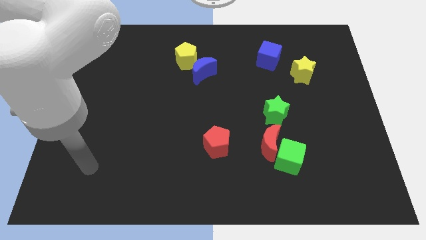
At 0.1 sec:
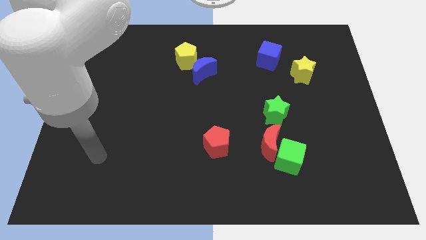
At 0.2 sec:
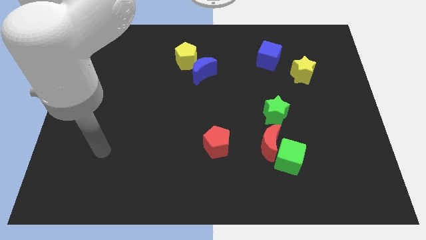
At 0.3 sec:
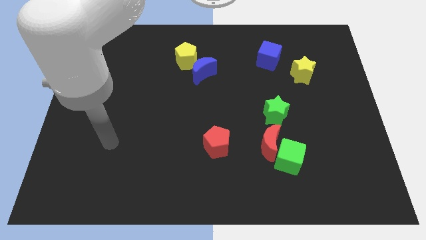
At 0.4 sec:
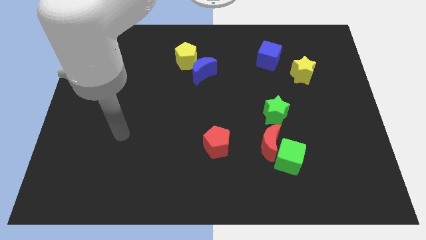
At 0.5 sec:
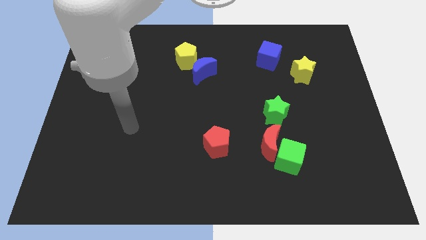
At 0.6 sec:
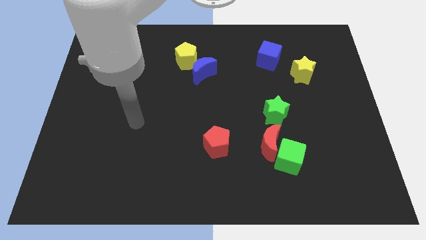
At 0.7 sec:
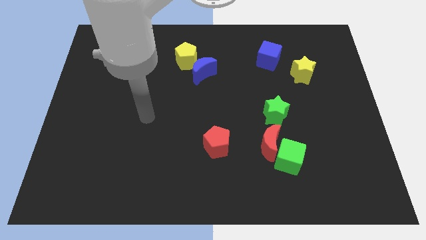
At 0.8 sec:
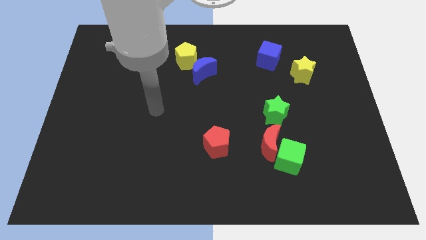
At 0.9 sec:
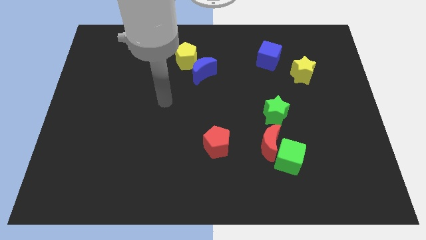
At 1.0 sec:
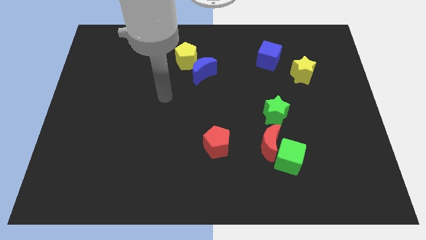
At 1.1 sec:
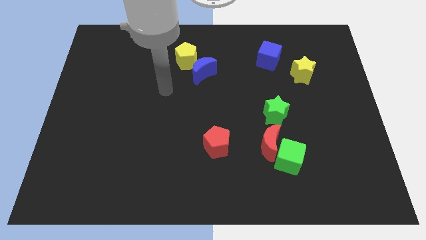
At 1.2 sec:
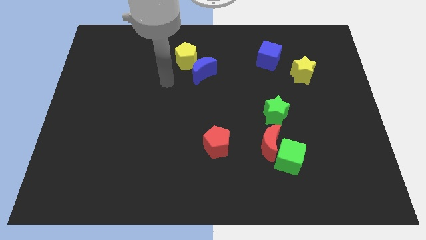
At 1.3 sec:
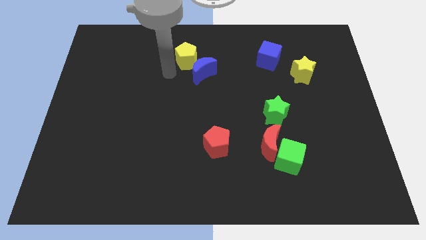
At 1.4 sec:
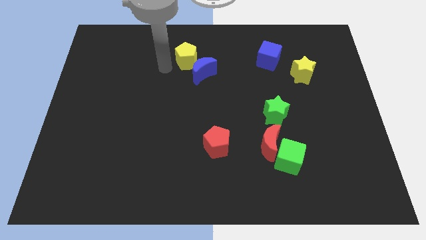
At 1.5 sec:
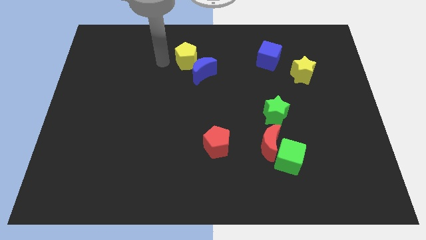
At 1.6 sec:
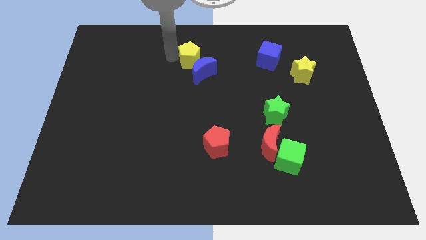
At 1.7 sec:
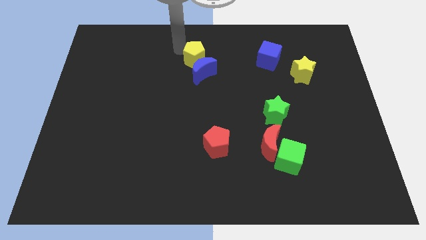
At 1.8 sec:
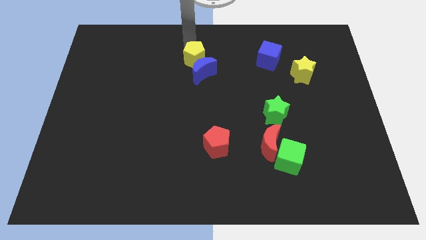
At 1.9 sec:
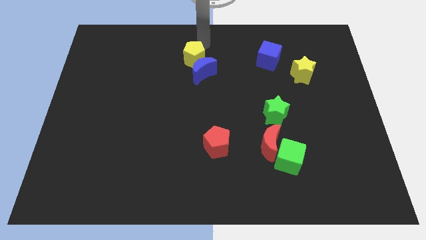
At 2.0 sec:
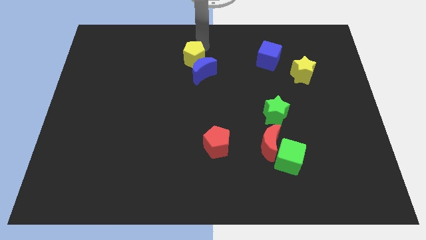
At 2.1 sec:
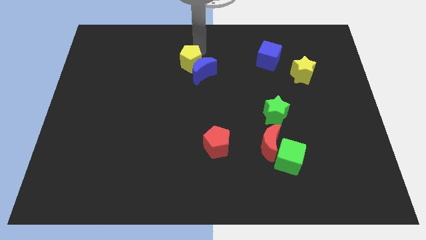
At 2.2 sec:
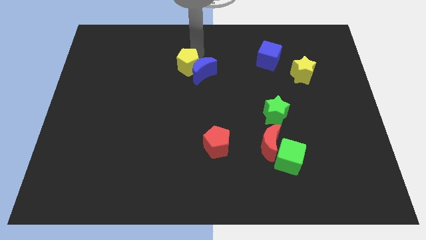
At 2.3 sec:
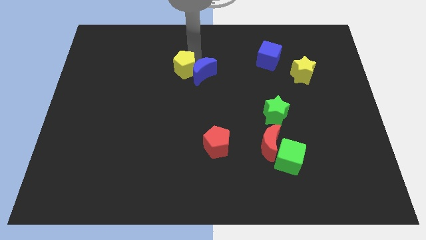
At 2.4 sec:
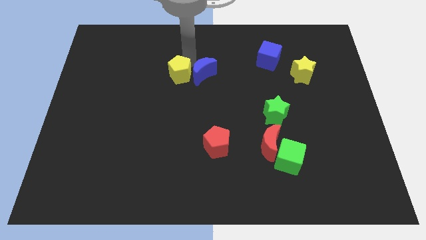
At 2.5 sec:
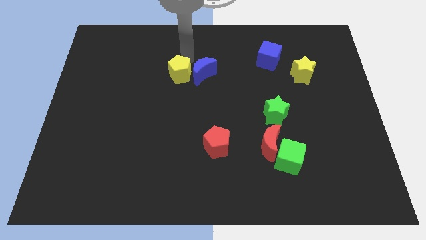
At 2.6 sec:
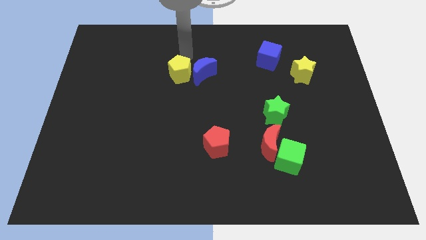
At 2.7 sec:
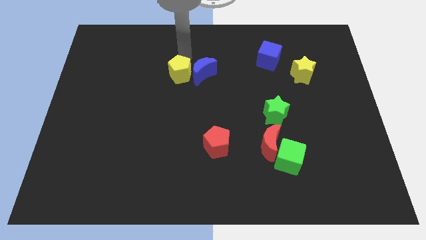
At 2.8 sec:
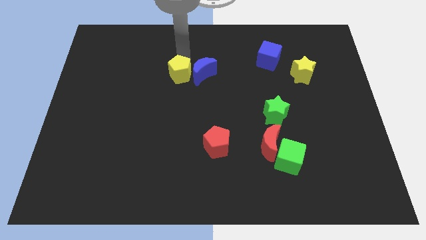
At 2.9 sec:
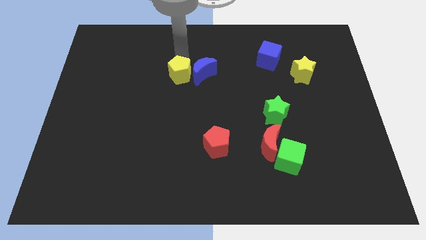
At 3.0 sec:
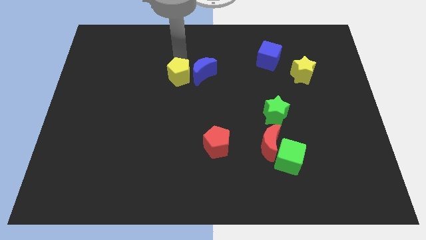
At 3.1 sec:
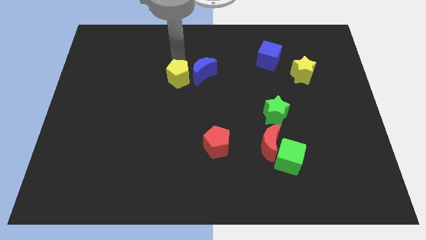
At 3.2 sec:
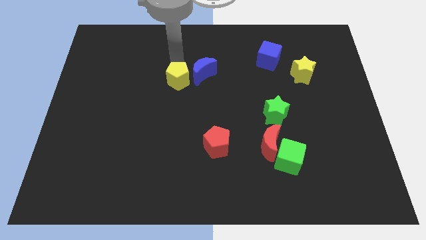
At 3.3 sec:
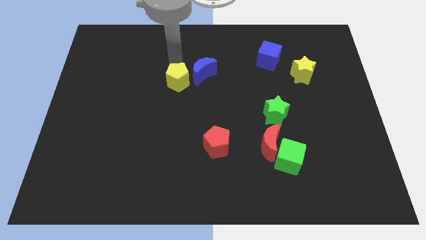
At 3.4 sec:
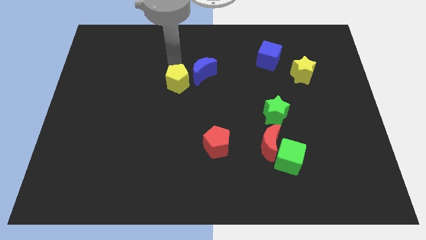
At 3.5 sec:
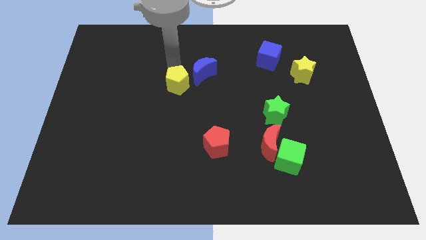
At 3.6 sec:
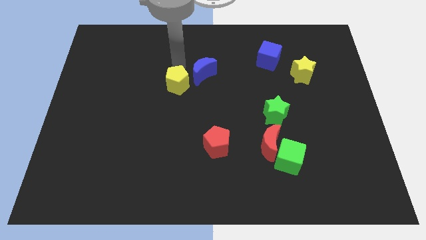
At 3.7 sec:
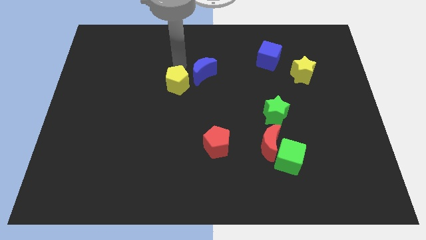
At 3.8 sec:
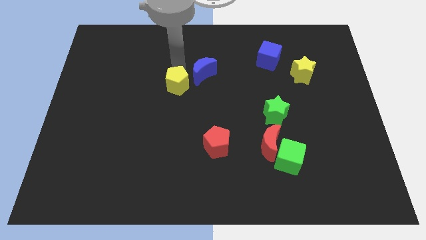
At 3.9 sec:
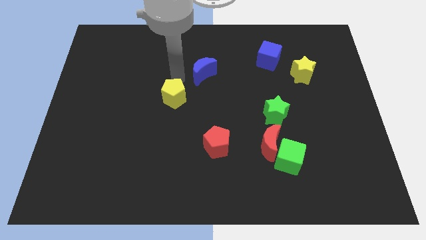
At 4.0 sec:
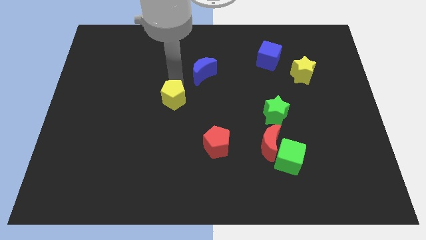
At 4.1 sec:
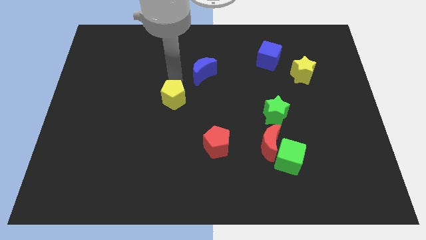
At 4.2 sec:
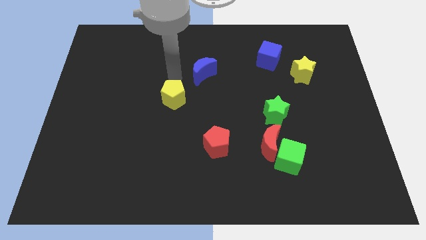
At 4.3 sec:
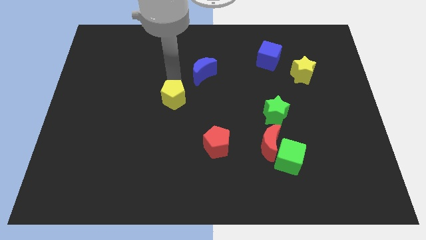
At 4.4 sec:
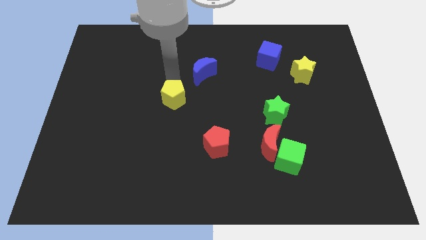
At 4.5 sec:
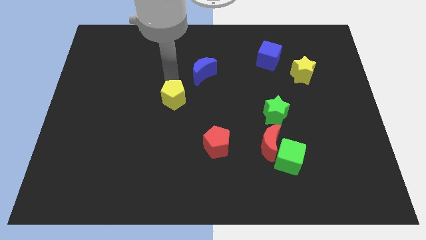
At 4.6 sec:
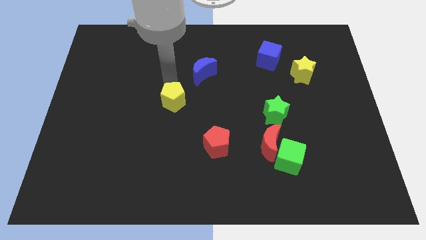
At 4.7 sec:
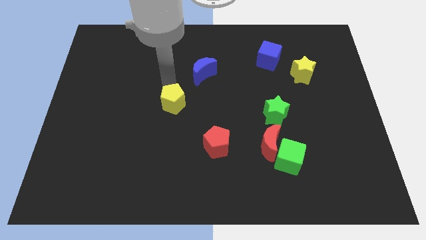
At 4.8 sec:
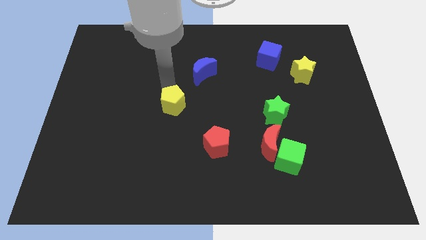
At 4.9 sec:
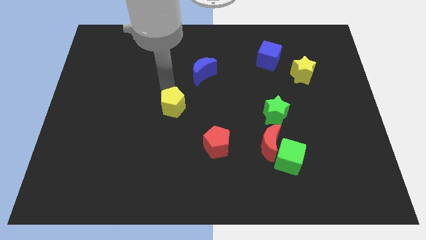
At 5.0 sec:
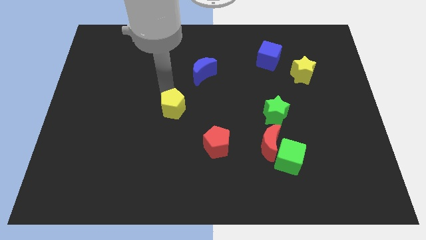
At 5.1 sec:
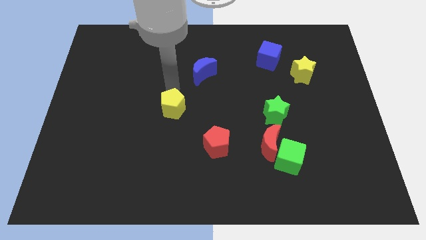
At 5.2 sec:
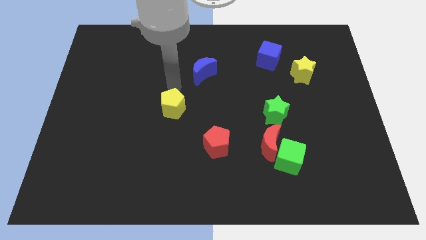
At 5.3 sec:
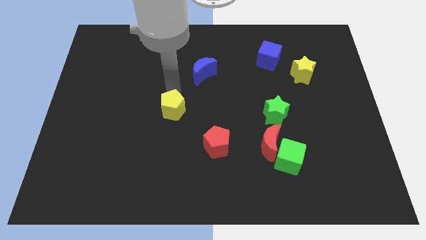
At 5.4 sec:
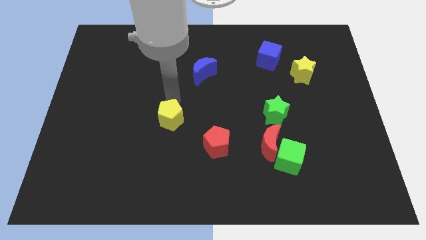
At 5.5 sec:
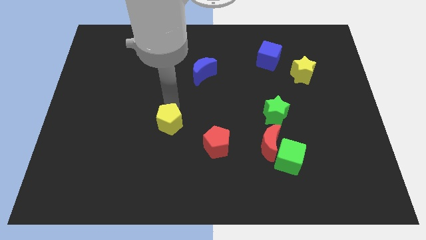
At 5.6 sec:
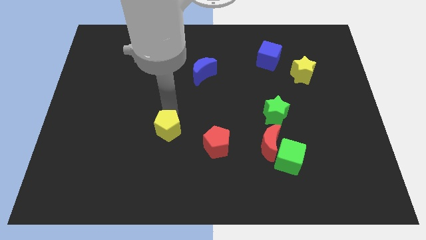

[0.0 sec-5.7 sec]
slide the yellow pentagon left of the red pentagon

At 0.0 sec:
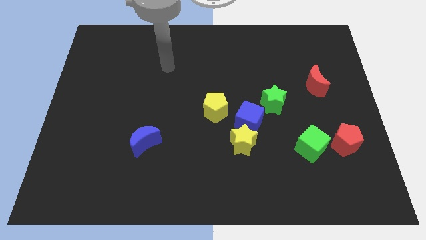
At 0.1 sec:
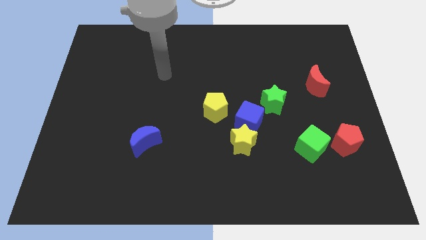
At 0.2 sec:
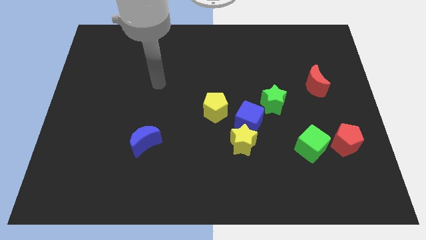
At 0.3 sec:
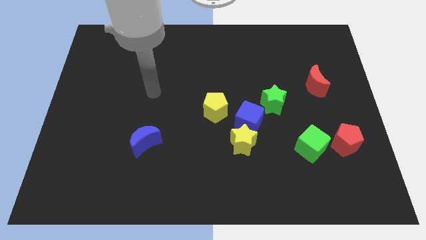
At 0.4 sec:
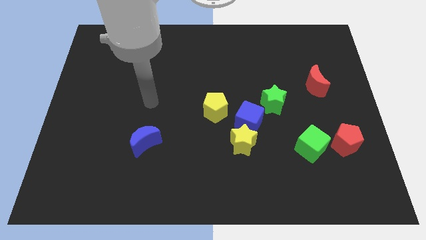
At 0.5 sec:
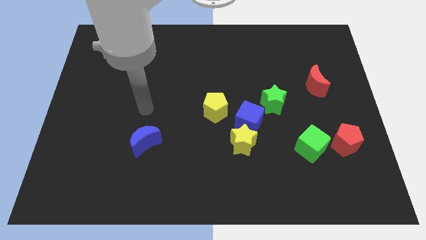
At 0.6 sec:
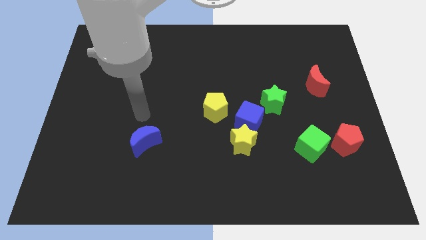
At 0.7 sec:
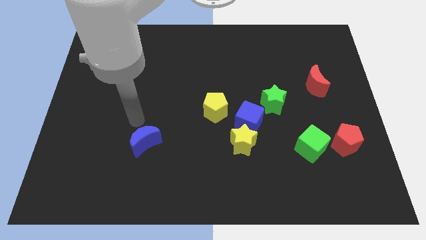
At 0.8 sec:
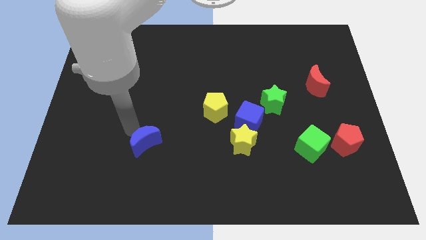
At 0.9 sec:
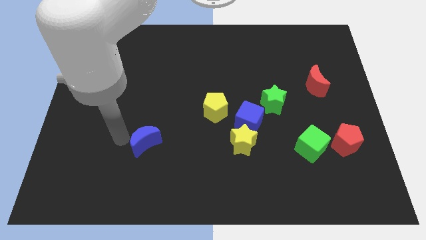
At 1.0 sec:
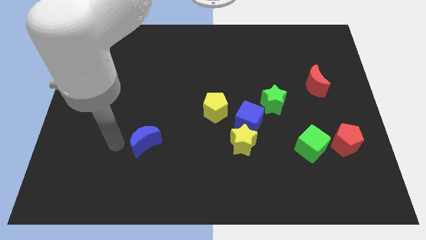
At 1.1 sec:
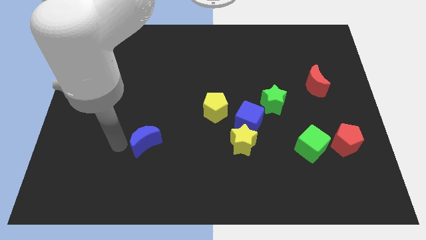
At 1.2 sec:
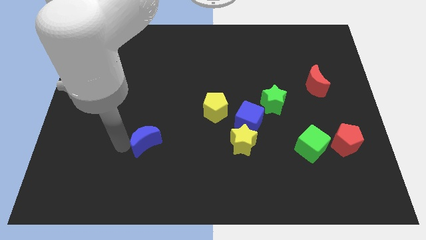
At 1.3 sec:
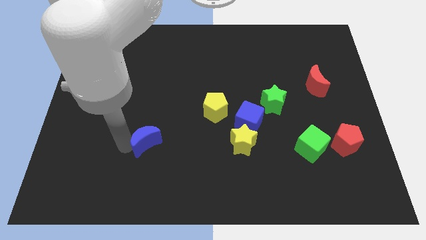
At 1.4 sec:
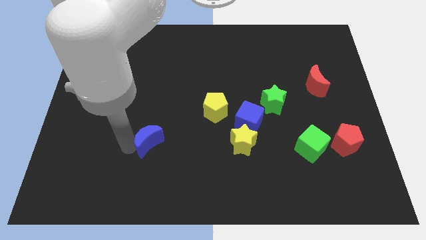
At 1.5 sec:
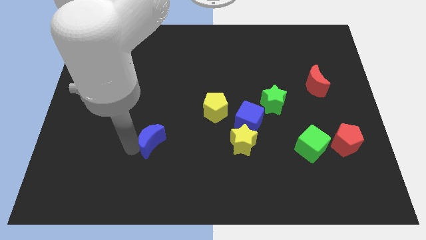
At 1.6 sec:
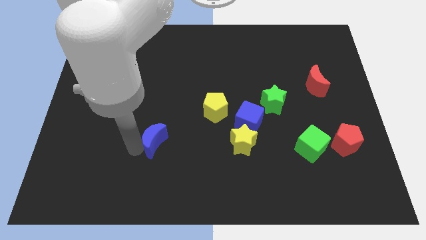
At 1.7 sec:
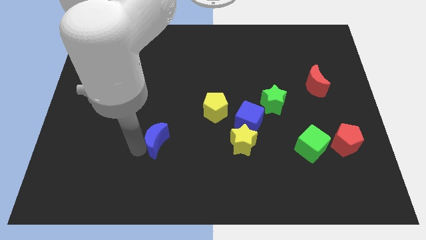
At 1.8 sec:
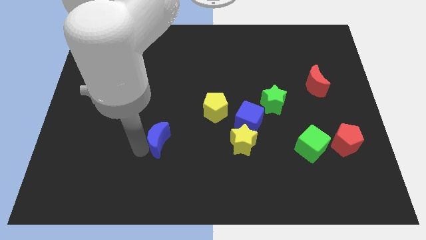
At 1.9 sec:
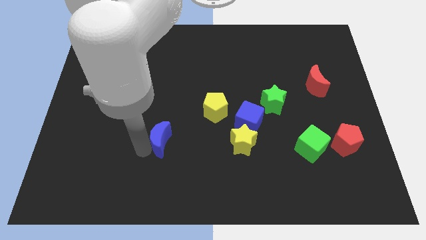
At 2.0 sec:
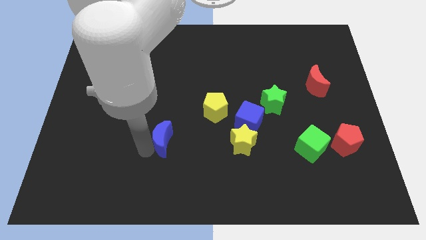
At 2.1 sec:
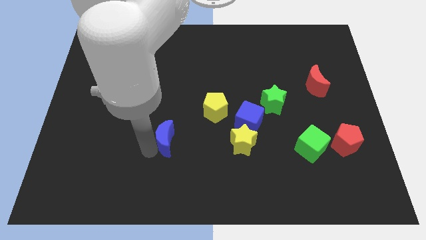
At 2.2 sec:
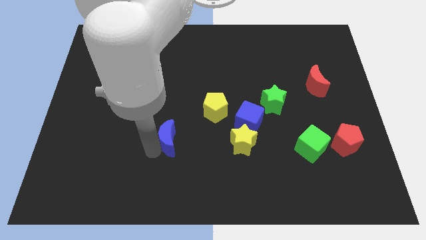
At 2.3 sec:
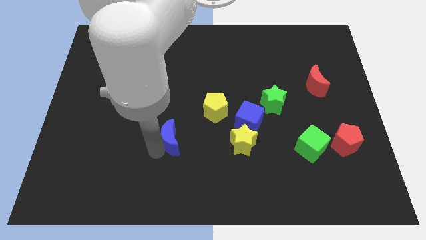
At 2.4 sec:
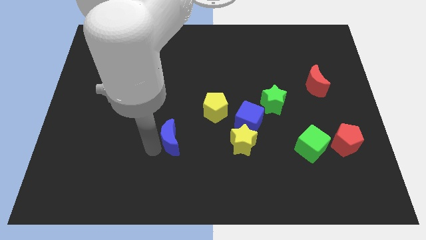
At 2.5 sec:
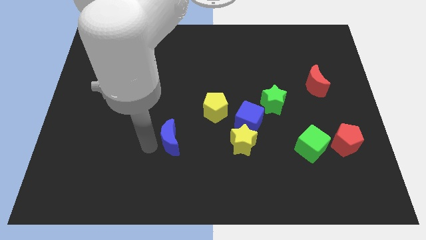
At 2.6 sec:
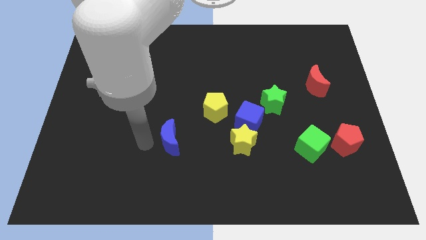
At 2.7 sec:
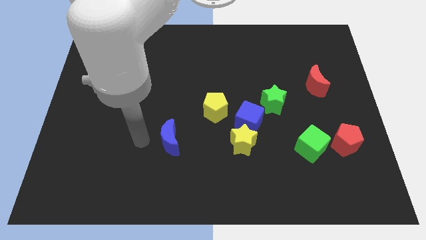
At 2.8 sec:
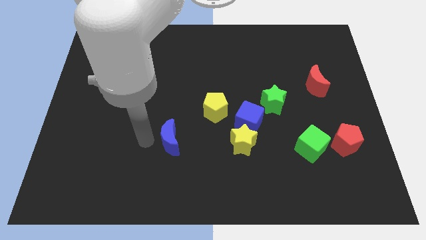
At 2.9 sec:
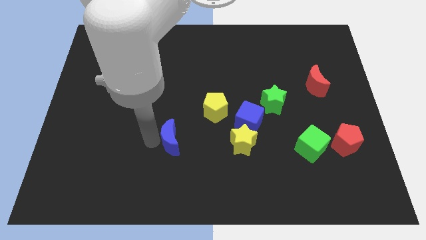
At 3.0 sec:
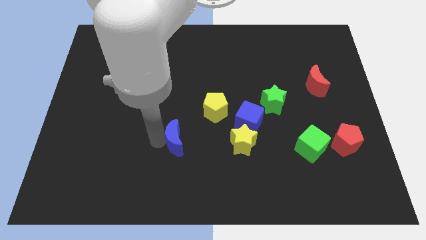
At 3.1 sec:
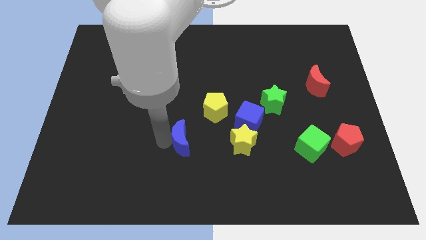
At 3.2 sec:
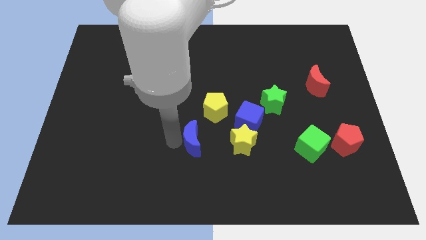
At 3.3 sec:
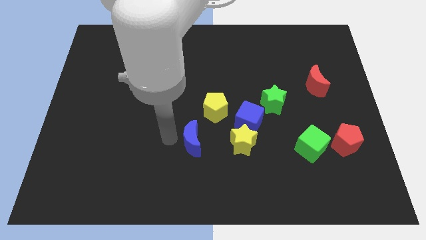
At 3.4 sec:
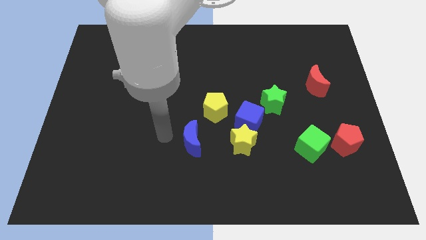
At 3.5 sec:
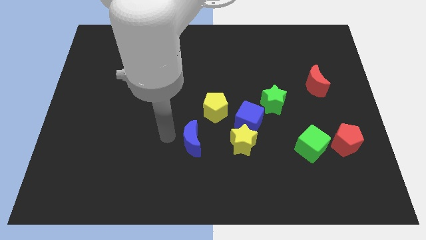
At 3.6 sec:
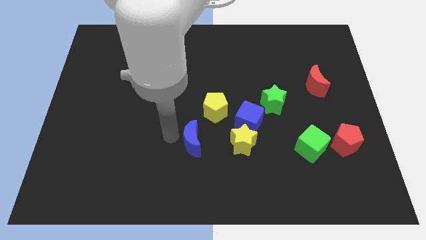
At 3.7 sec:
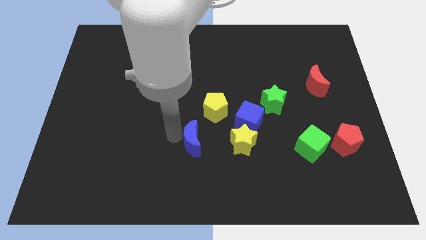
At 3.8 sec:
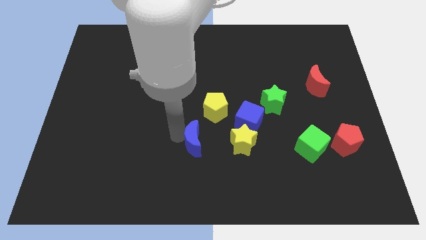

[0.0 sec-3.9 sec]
push the blue moon to the bottom side of the yellow pentagon
